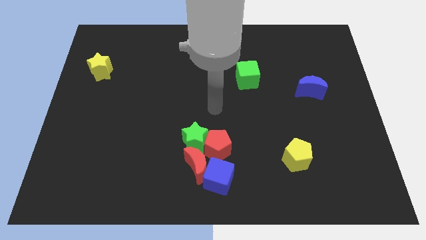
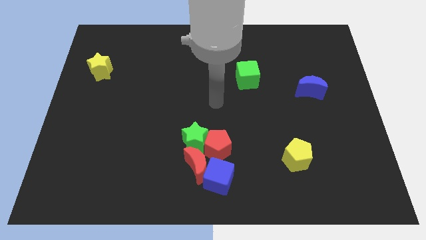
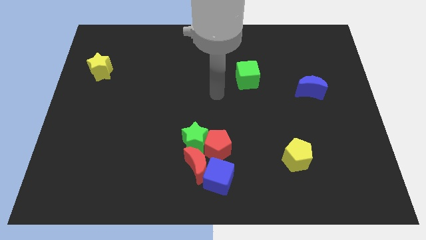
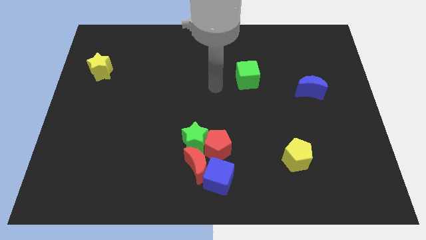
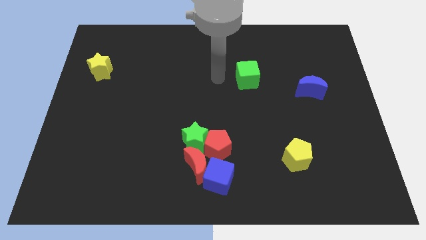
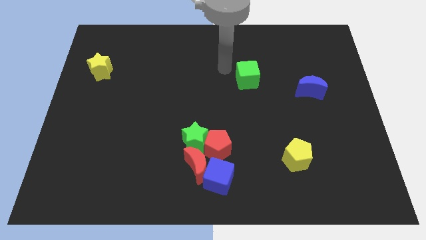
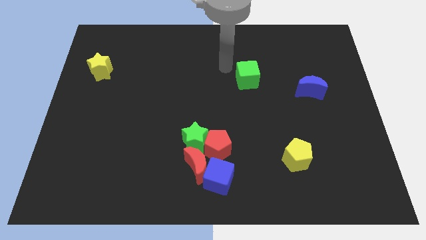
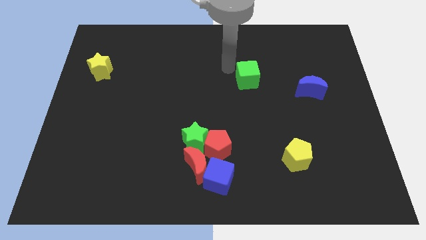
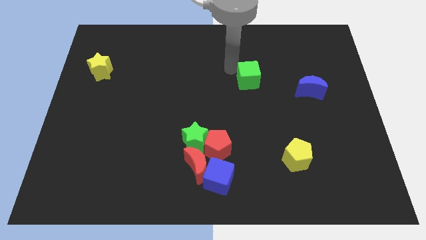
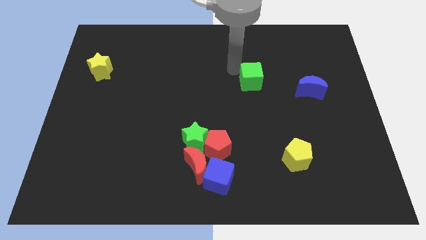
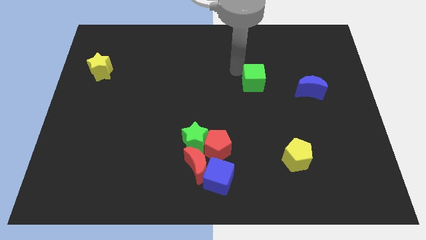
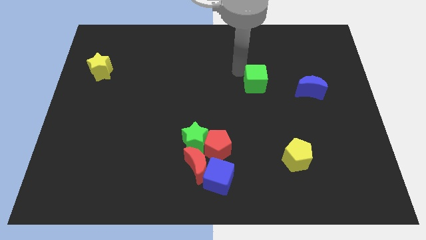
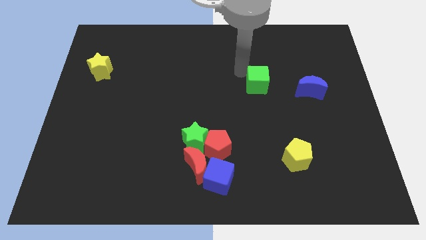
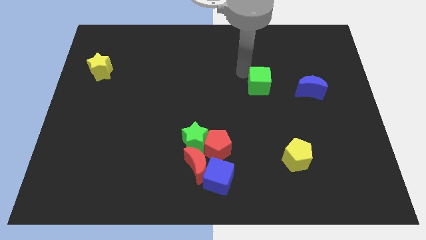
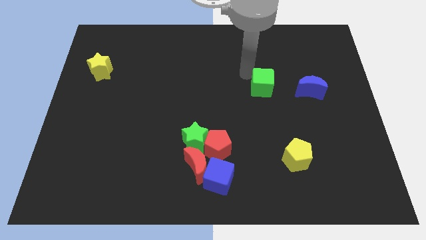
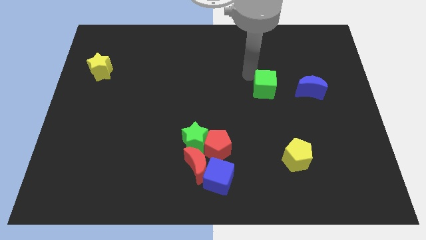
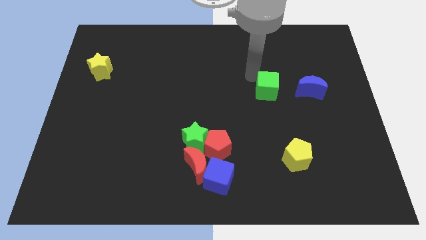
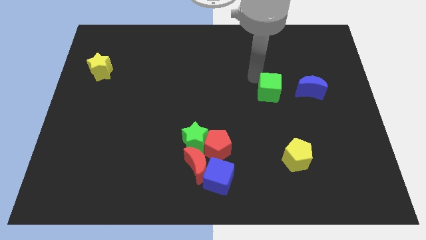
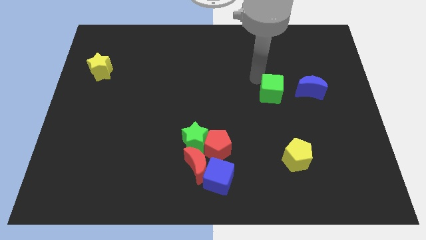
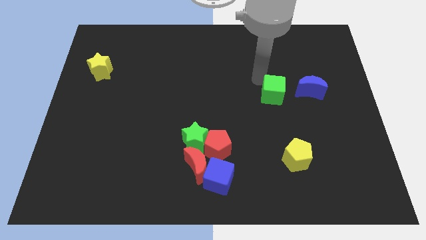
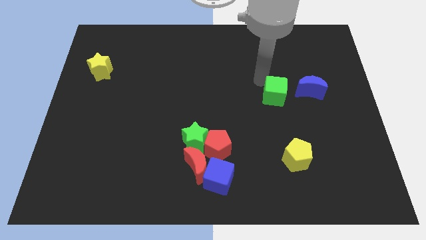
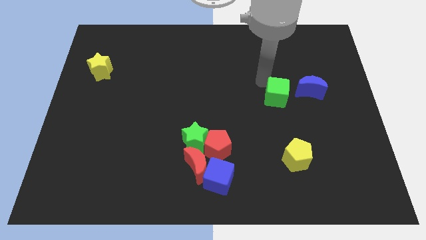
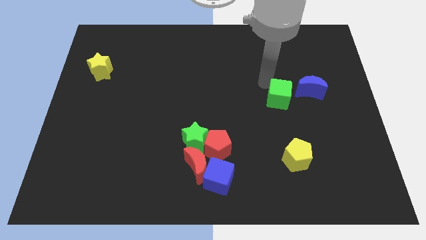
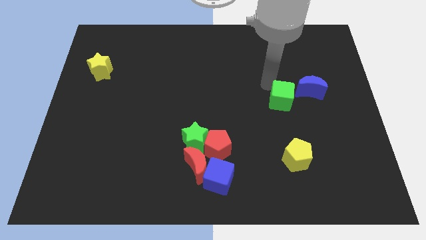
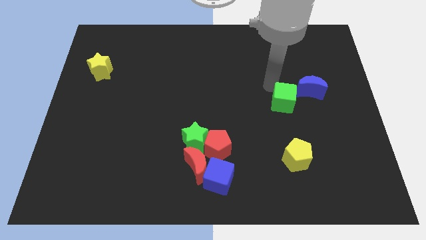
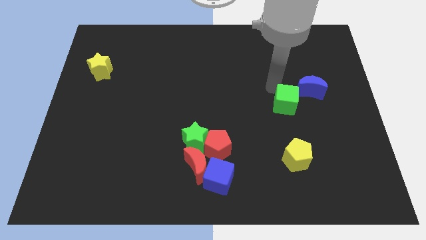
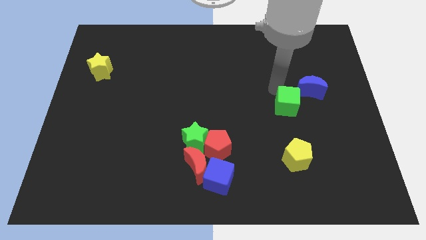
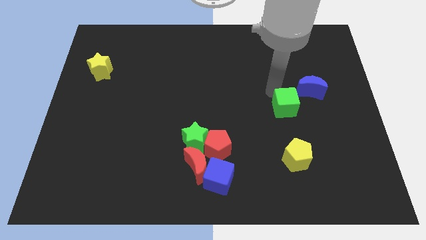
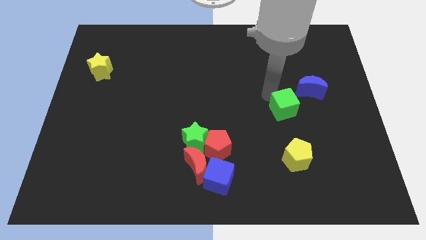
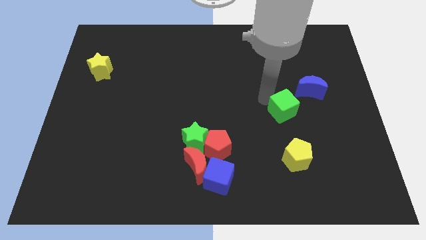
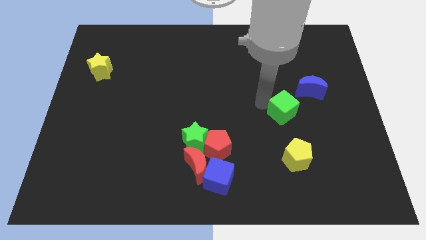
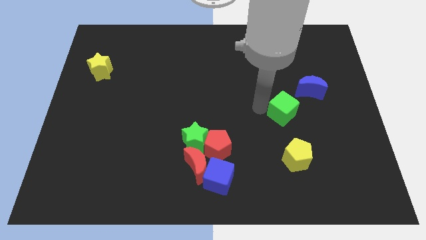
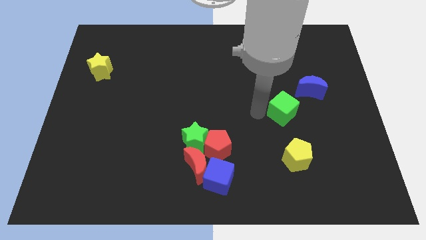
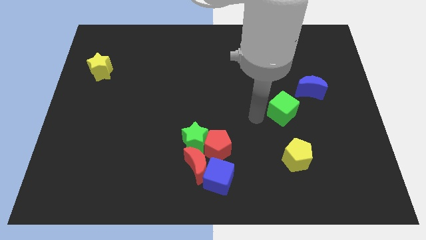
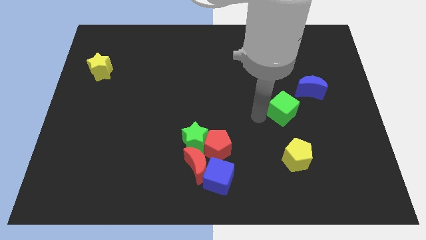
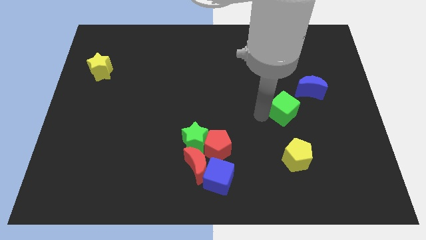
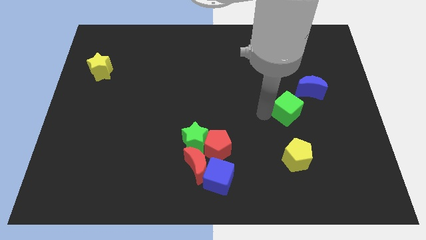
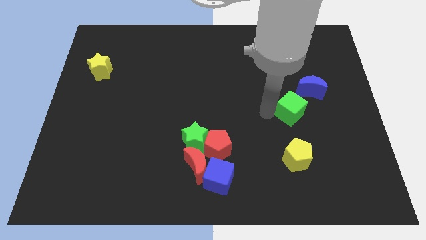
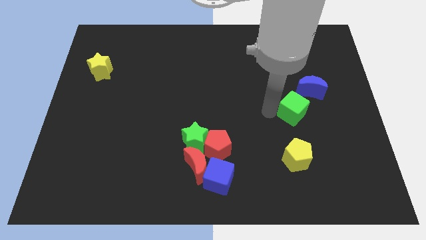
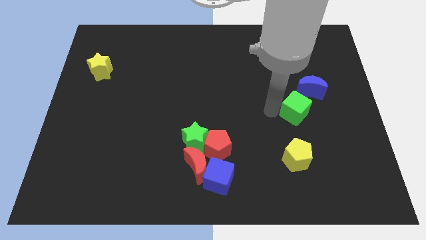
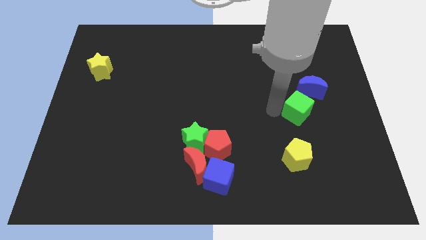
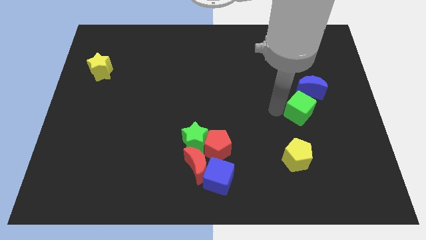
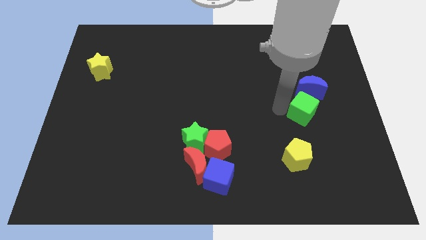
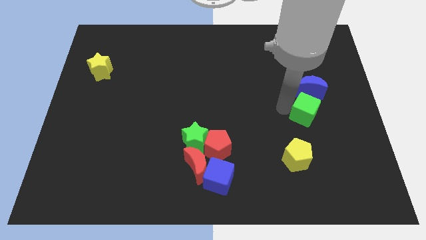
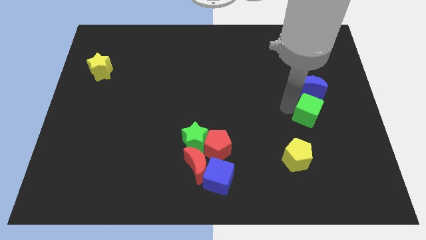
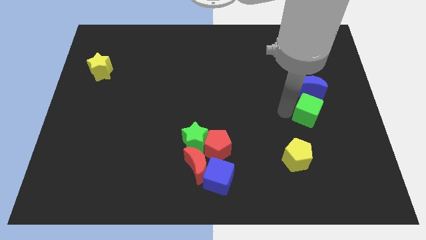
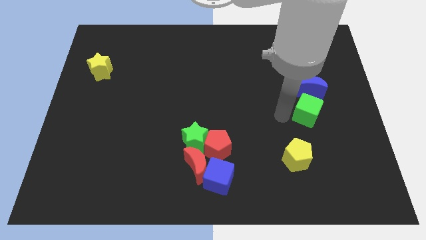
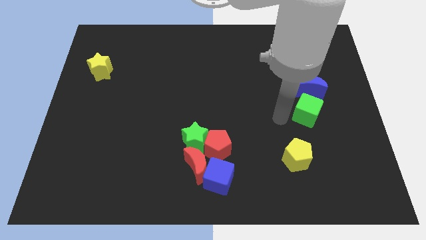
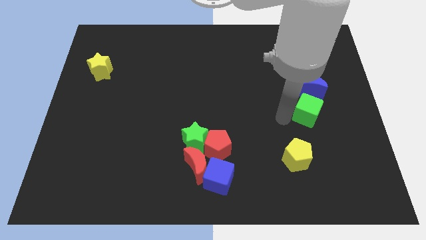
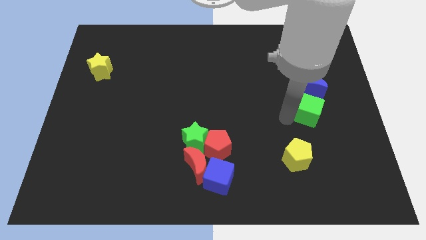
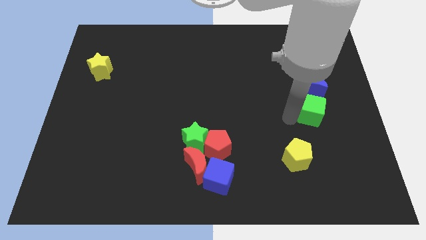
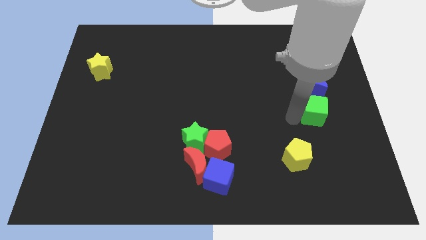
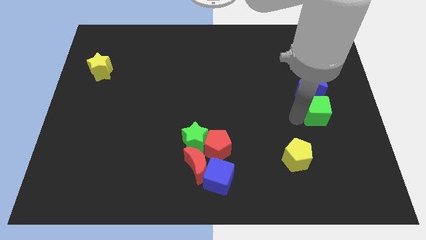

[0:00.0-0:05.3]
push the green cube diagonally down and to the right of the blue moon

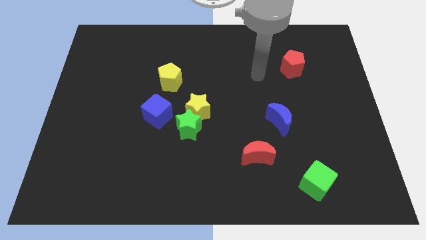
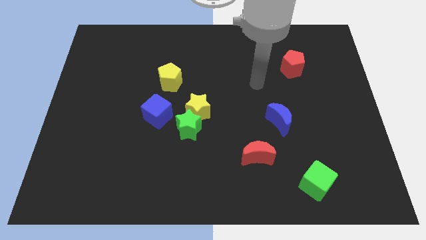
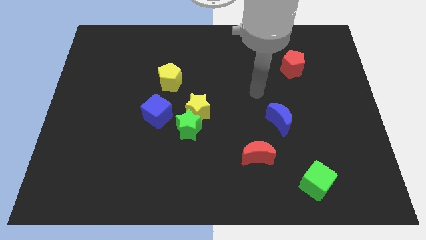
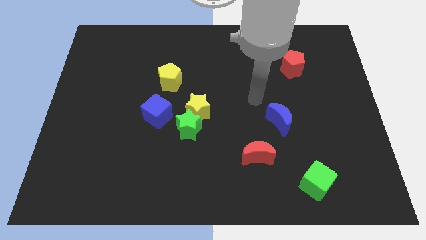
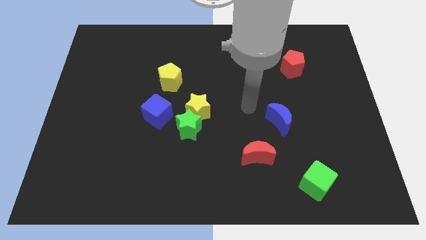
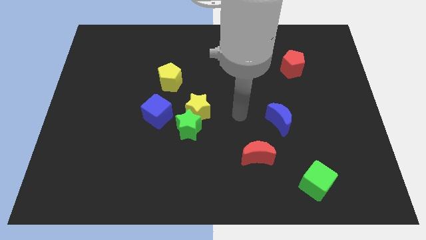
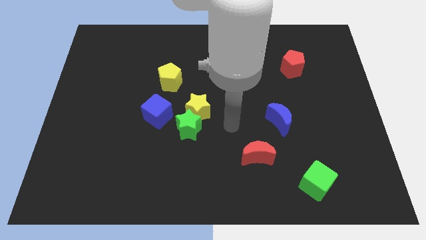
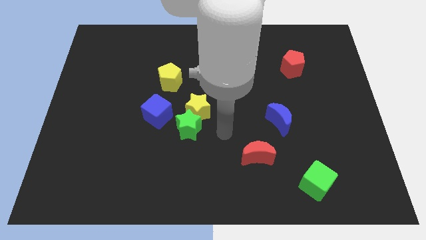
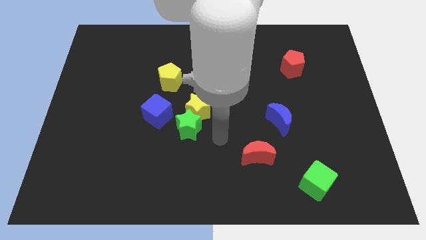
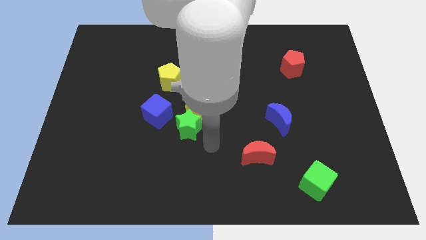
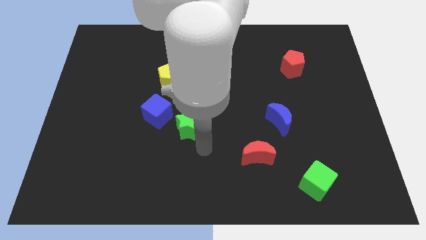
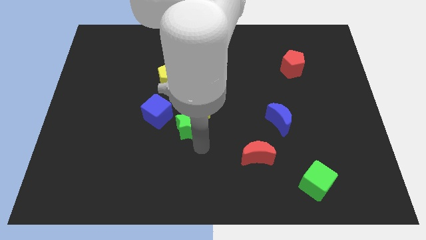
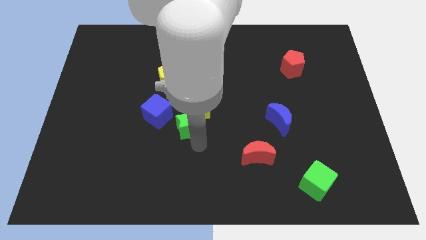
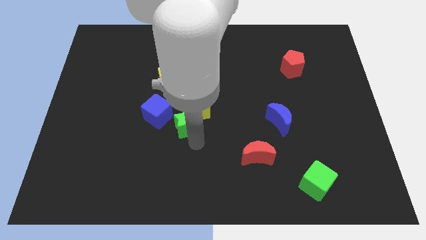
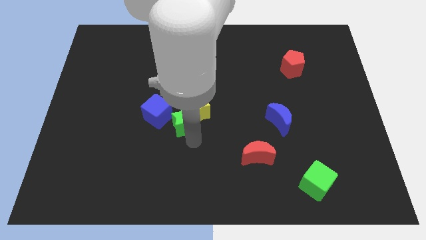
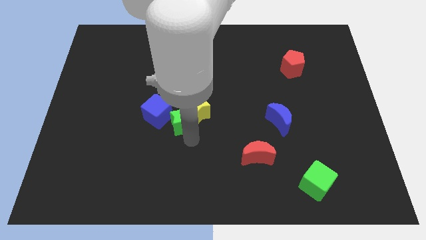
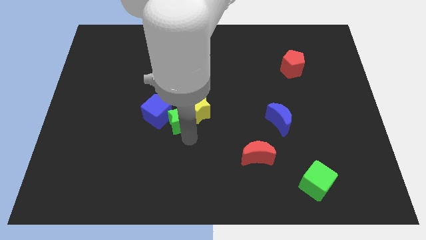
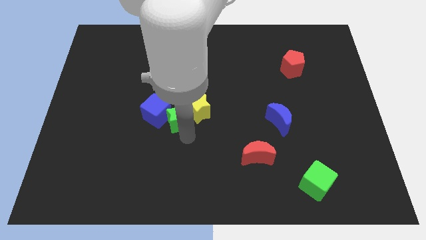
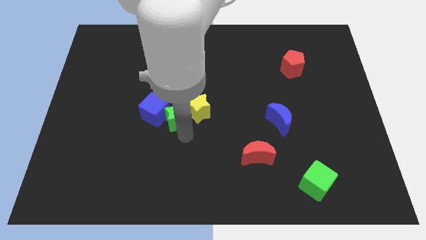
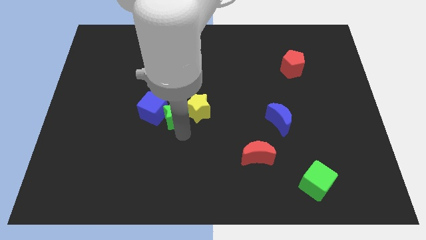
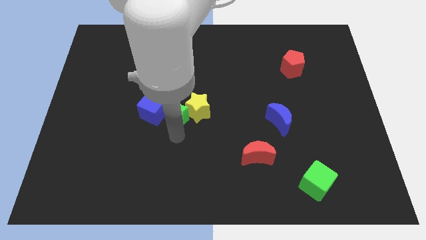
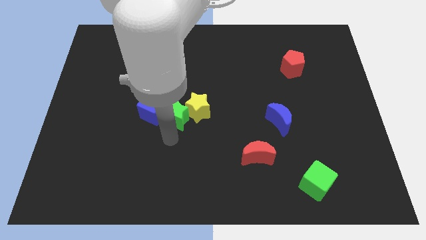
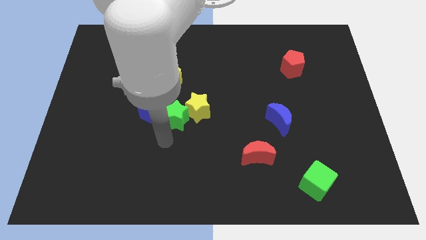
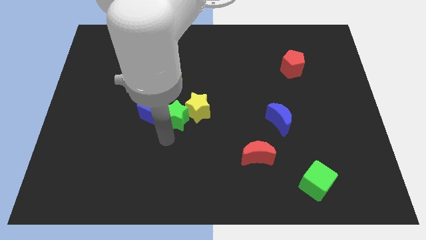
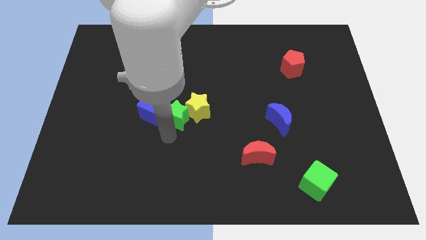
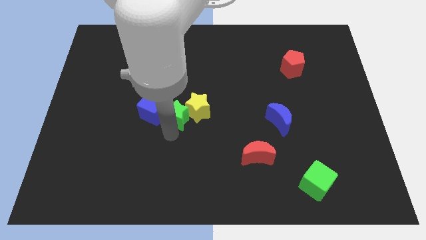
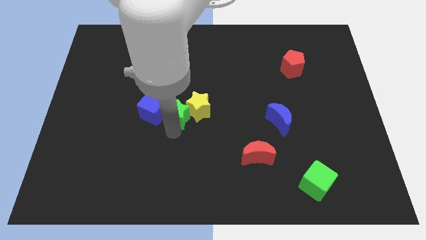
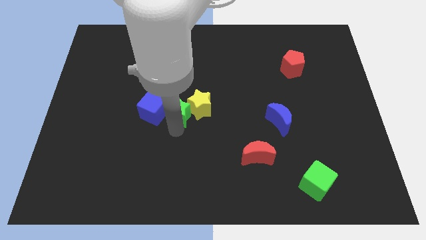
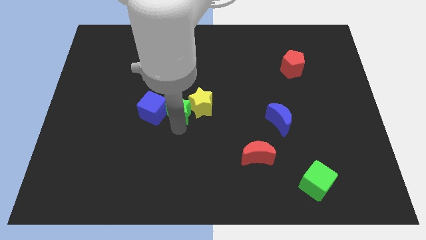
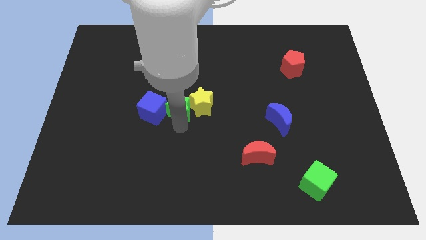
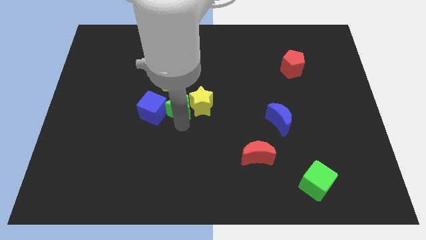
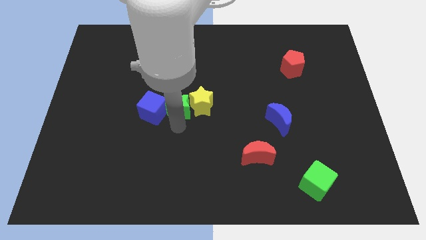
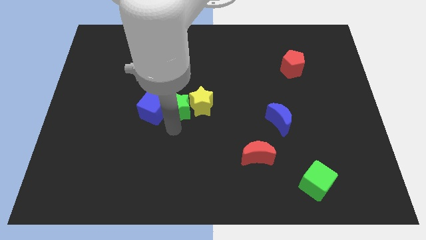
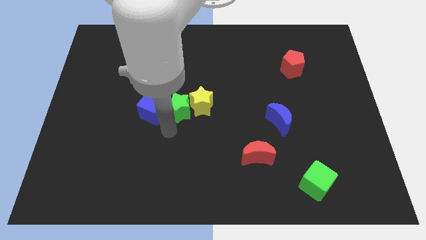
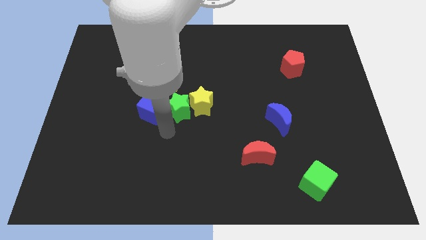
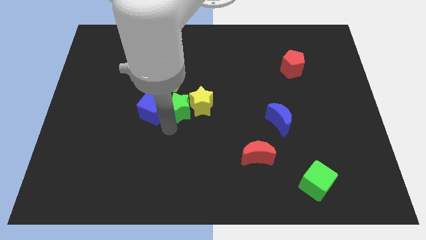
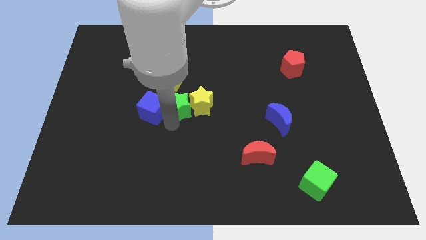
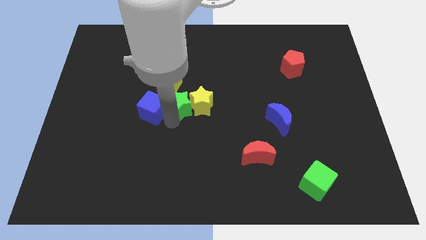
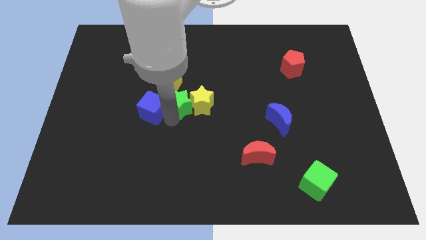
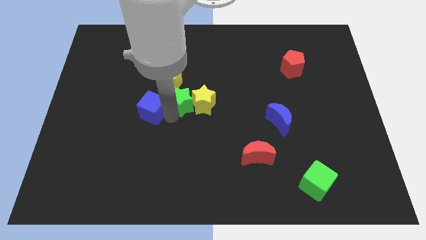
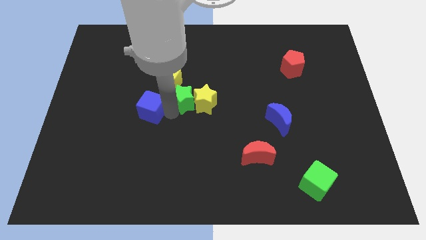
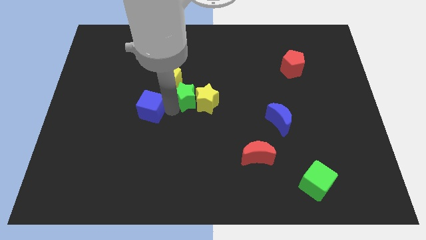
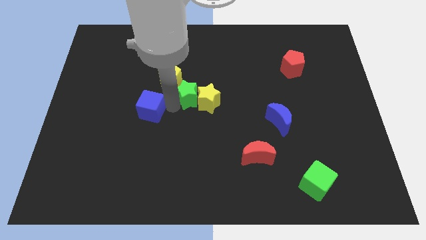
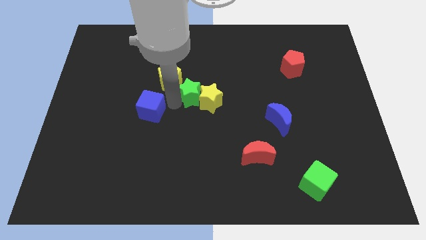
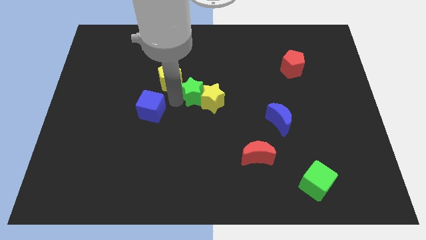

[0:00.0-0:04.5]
put the green star just right of the yellow pentagon
